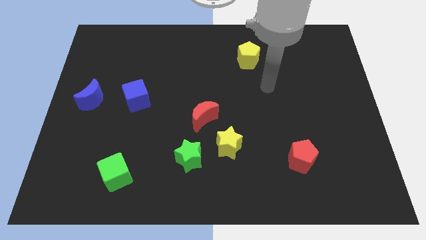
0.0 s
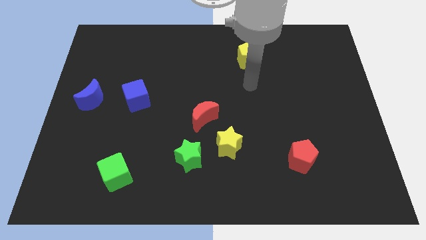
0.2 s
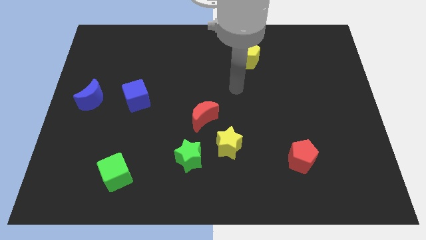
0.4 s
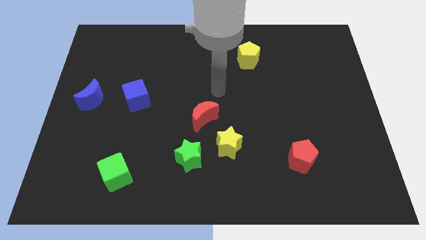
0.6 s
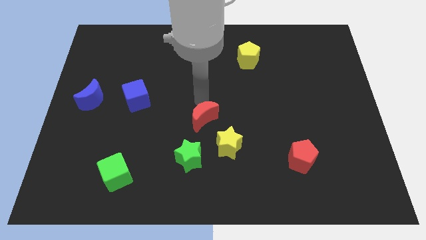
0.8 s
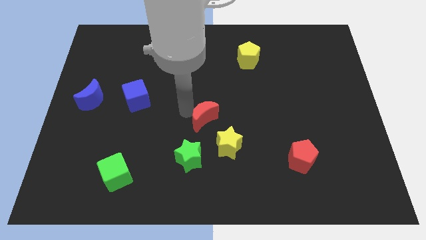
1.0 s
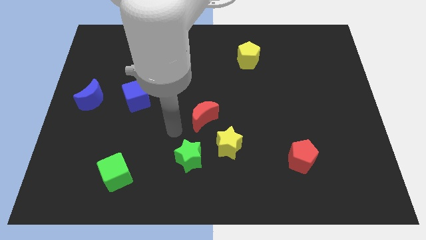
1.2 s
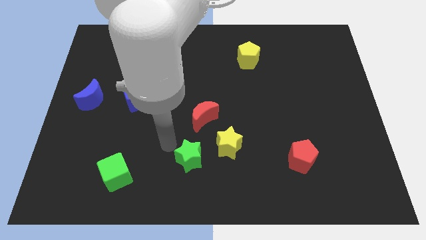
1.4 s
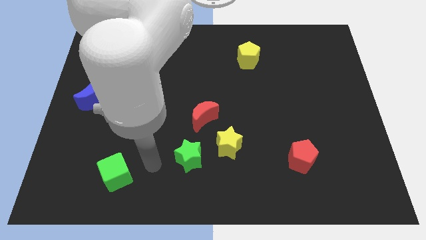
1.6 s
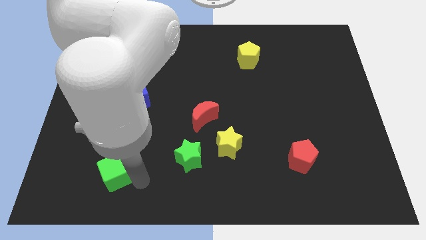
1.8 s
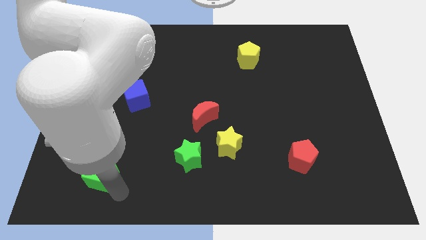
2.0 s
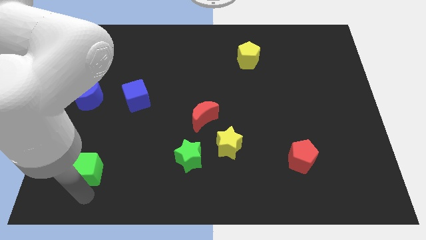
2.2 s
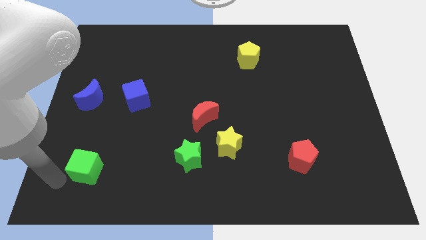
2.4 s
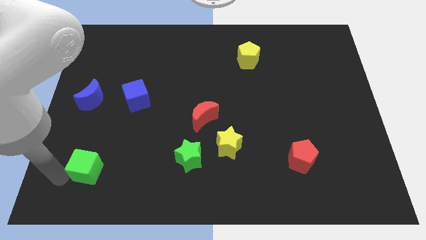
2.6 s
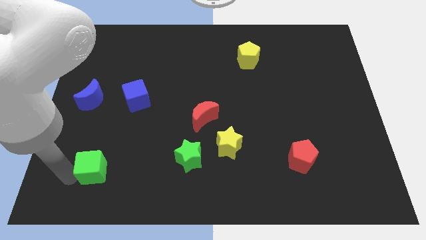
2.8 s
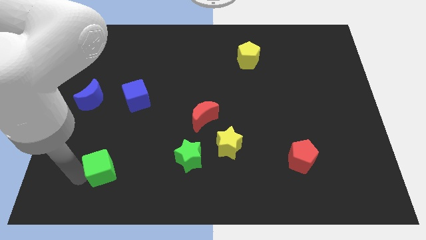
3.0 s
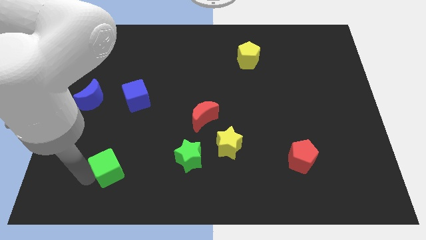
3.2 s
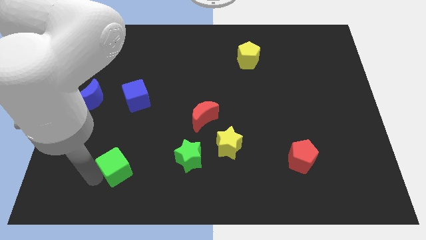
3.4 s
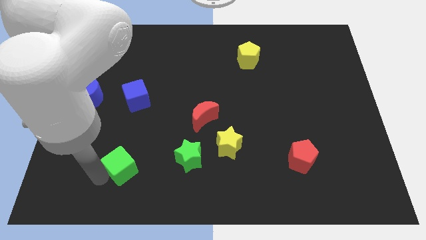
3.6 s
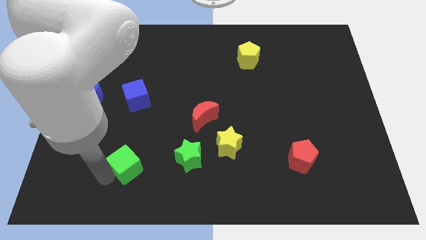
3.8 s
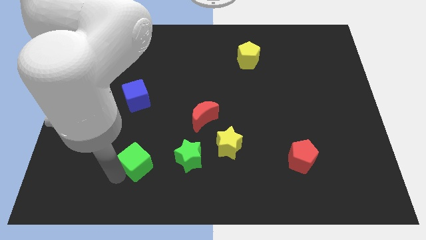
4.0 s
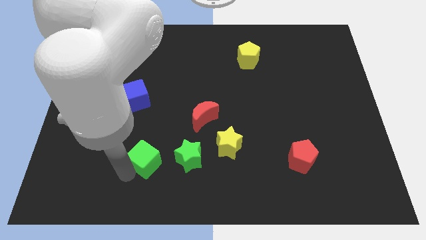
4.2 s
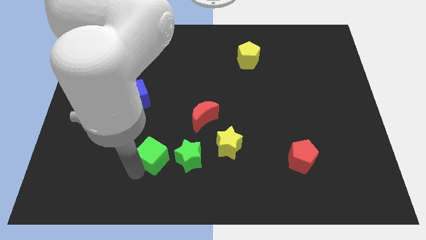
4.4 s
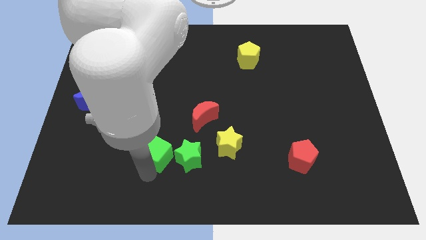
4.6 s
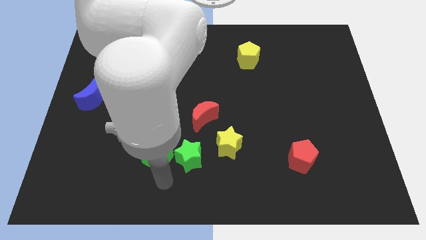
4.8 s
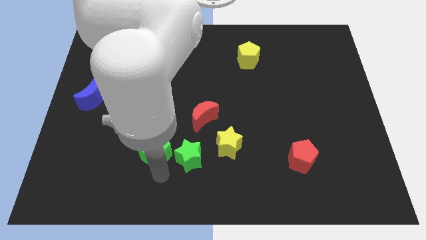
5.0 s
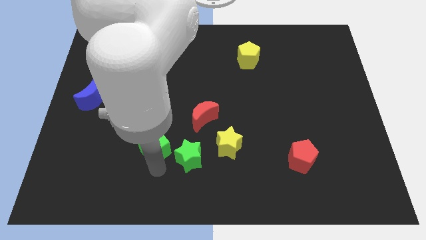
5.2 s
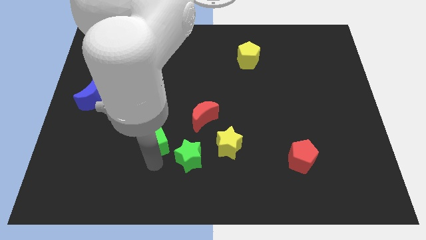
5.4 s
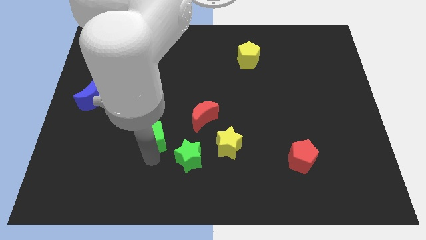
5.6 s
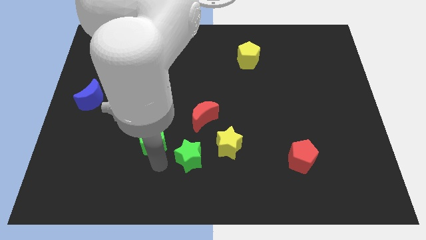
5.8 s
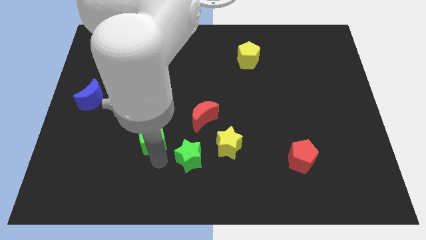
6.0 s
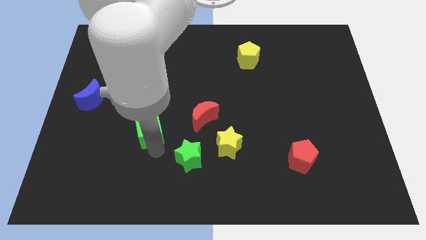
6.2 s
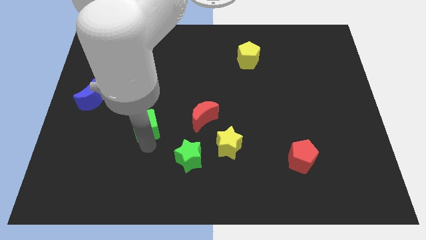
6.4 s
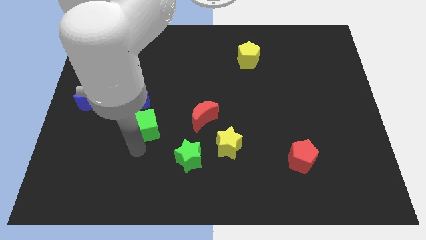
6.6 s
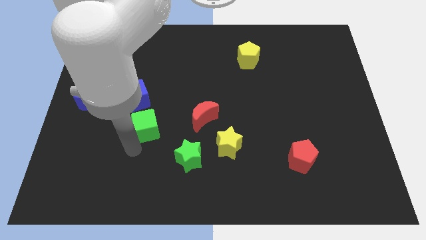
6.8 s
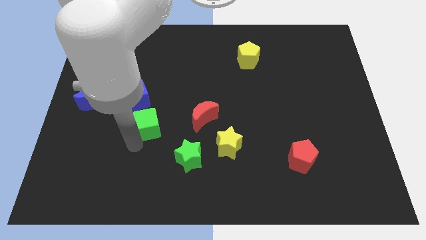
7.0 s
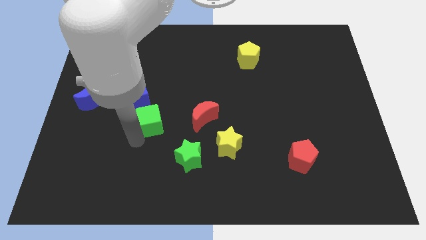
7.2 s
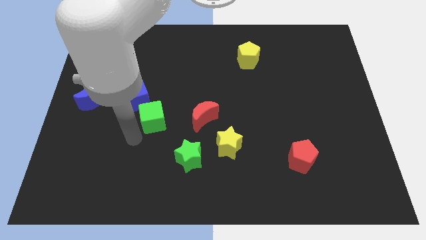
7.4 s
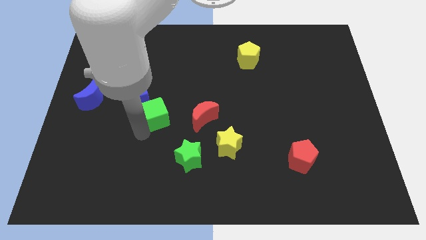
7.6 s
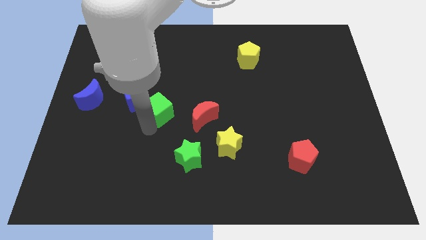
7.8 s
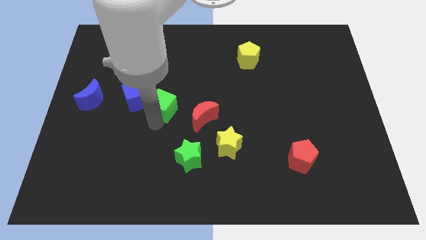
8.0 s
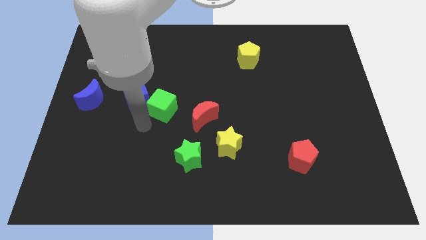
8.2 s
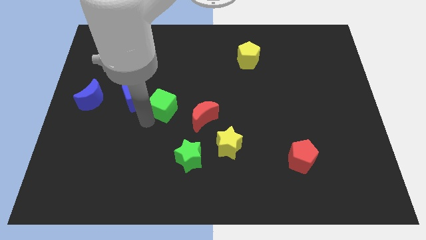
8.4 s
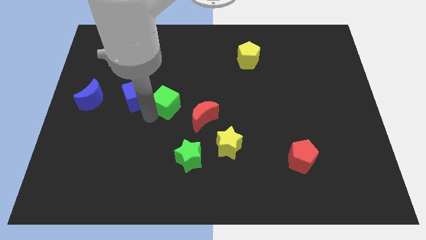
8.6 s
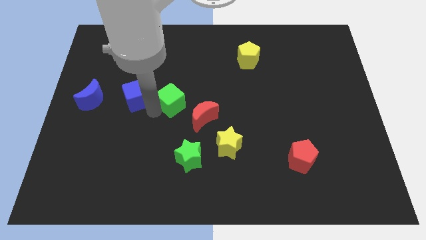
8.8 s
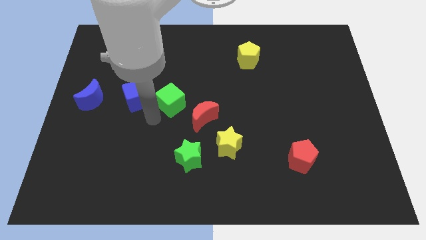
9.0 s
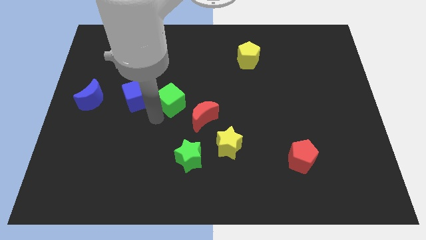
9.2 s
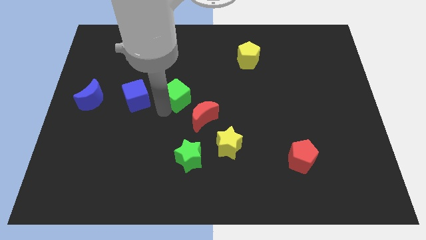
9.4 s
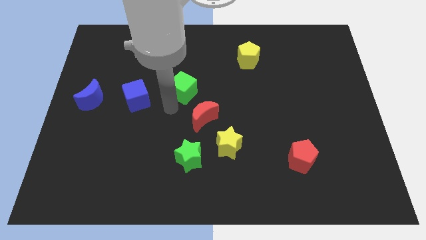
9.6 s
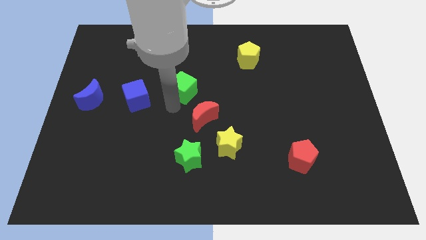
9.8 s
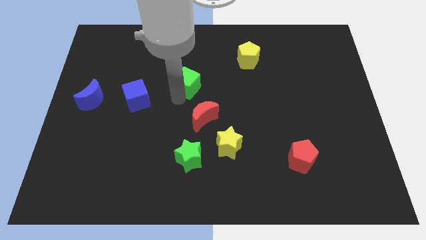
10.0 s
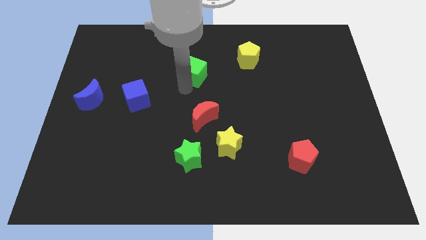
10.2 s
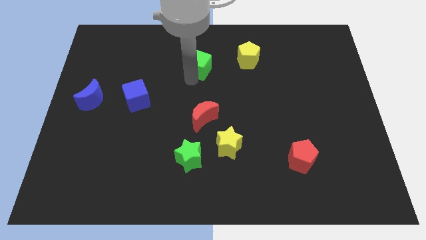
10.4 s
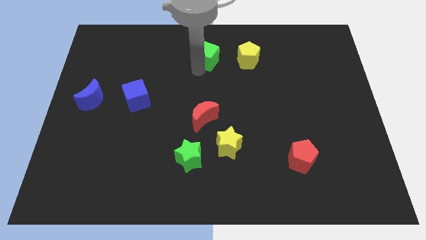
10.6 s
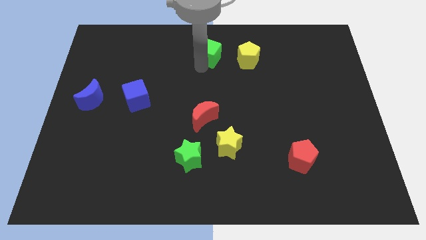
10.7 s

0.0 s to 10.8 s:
slide the green cube to the towards your base

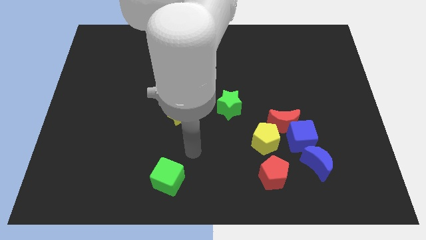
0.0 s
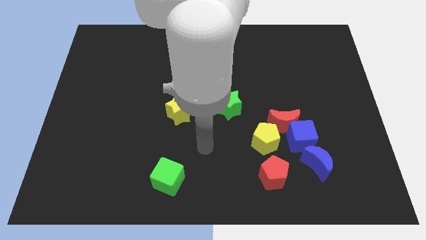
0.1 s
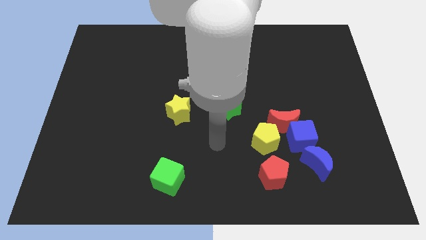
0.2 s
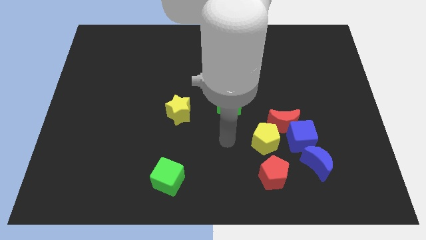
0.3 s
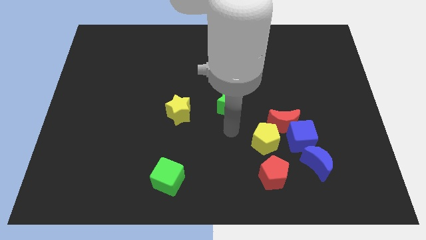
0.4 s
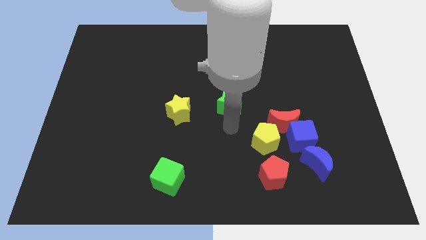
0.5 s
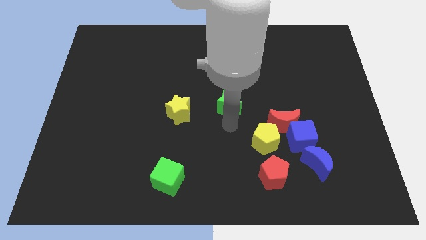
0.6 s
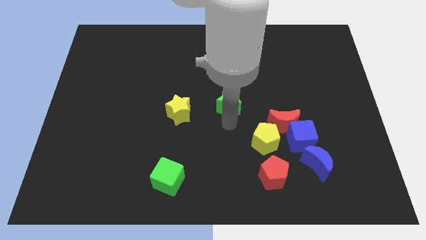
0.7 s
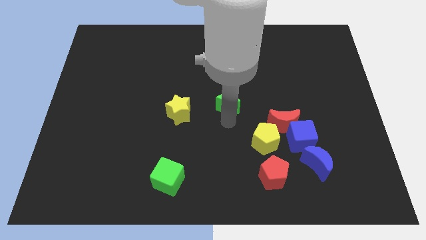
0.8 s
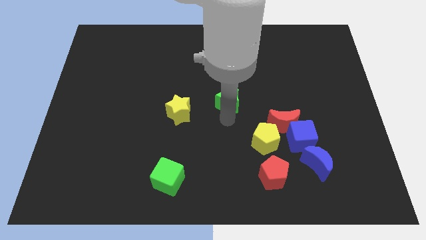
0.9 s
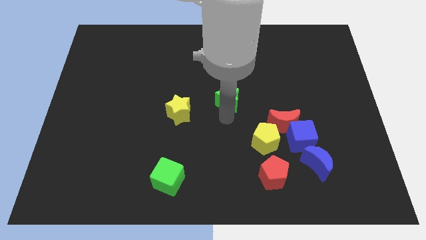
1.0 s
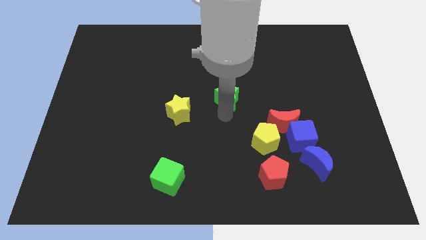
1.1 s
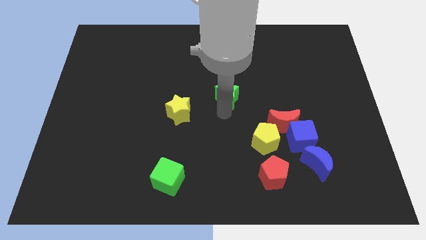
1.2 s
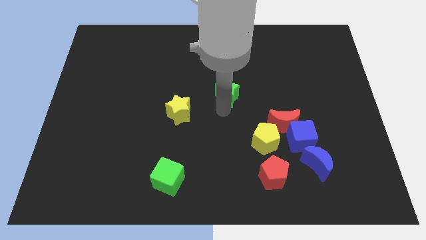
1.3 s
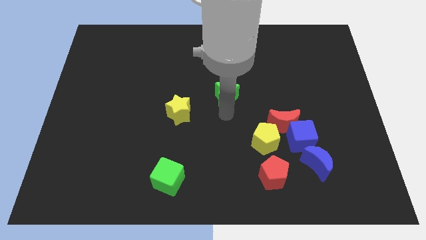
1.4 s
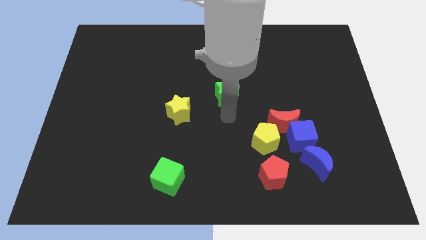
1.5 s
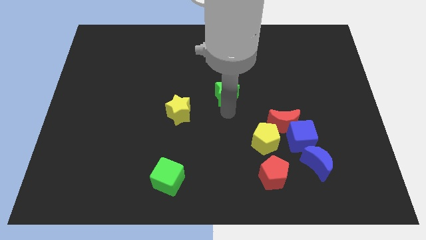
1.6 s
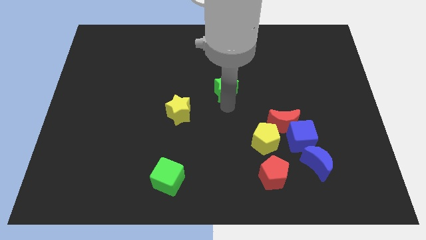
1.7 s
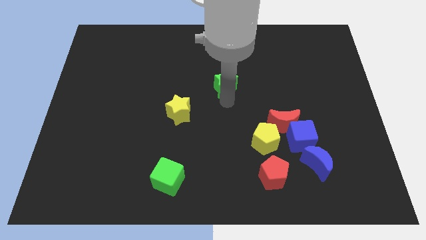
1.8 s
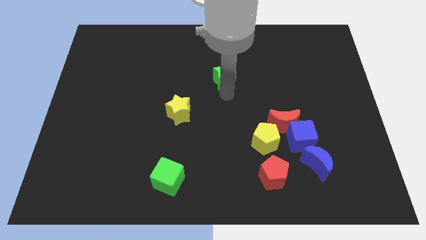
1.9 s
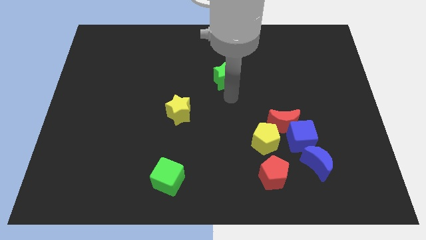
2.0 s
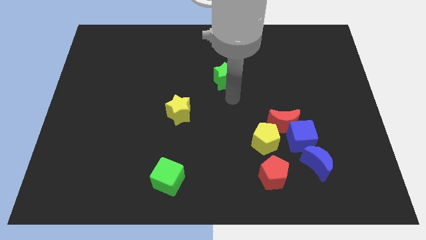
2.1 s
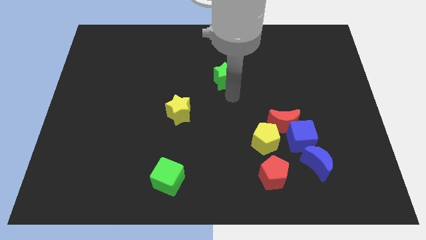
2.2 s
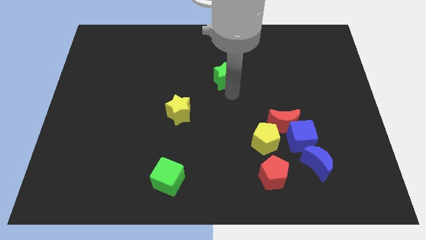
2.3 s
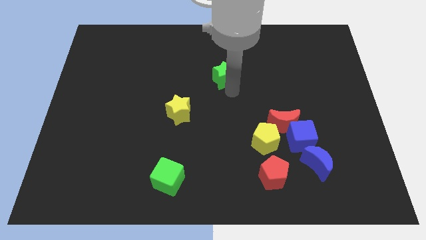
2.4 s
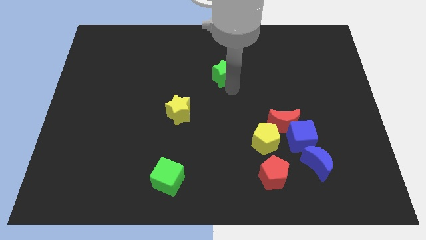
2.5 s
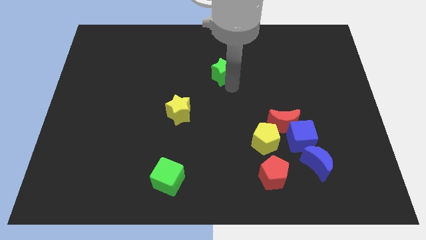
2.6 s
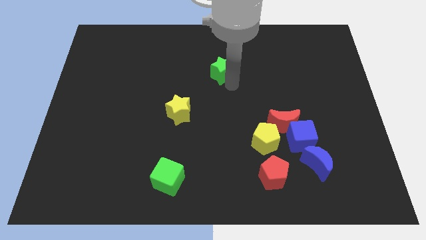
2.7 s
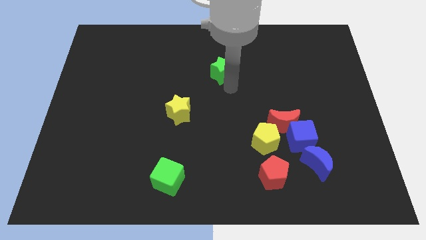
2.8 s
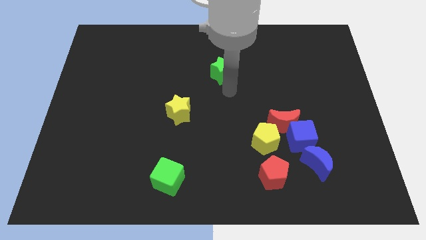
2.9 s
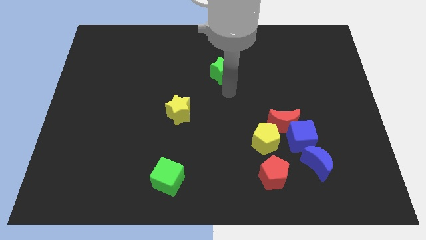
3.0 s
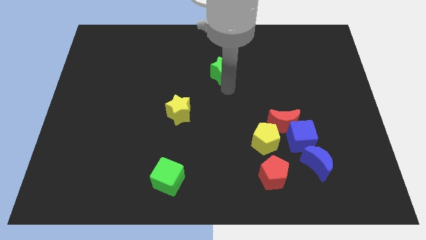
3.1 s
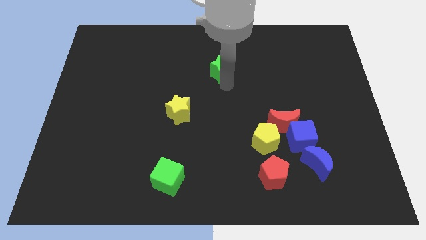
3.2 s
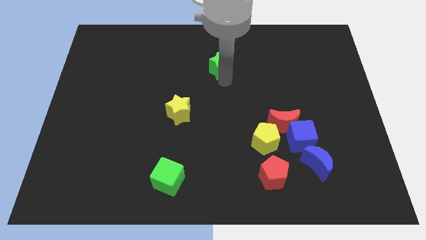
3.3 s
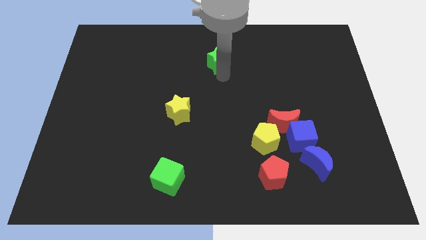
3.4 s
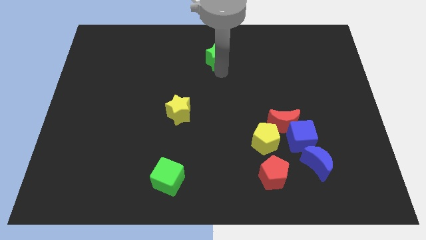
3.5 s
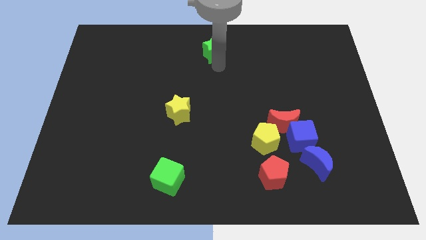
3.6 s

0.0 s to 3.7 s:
slide the green star to the towards your base
